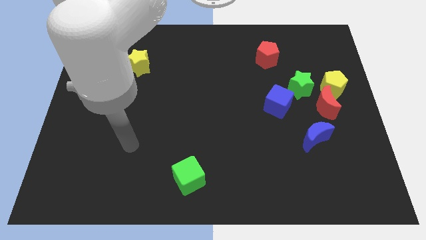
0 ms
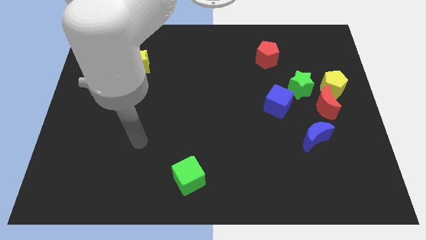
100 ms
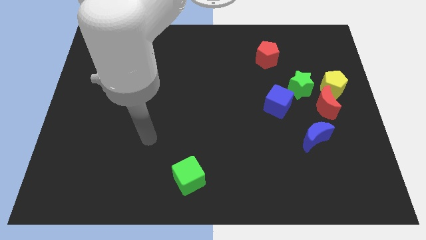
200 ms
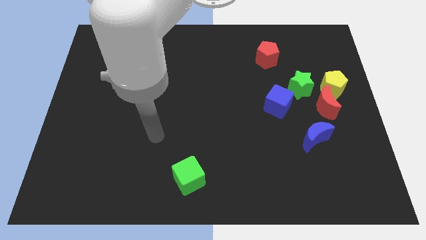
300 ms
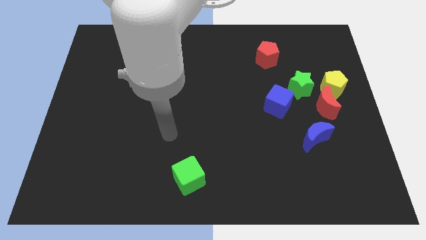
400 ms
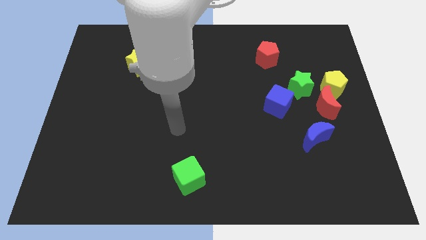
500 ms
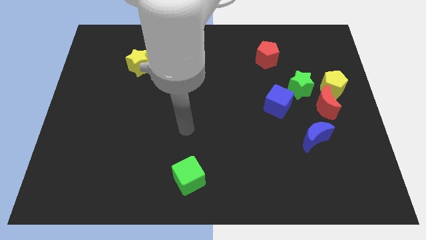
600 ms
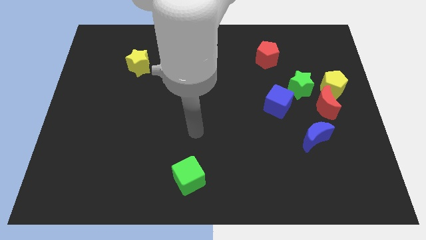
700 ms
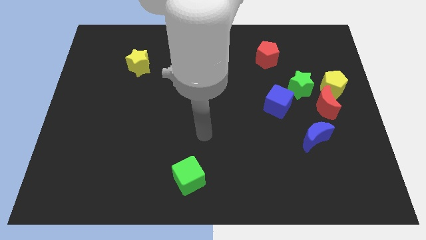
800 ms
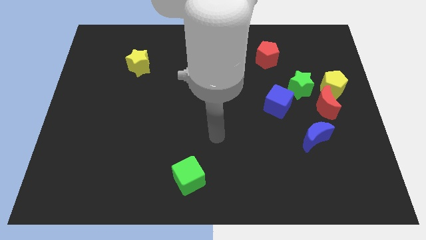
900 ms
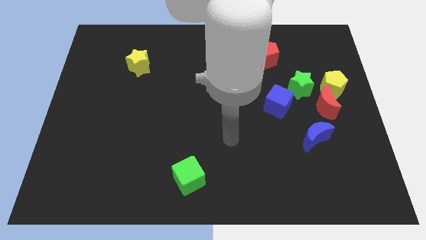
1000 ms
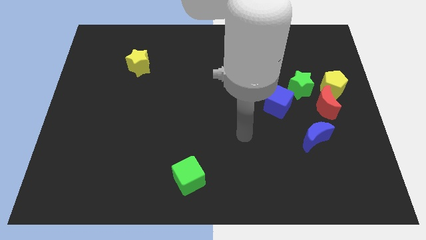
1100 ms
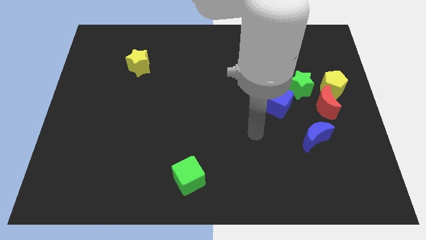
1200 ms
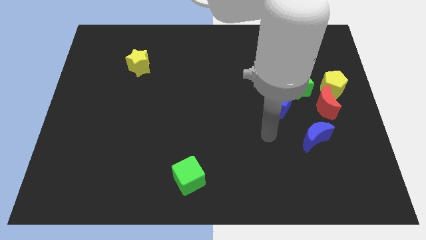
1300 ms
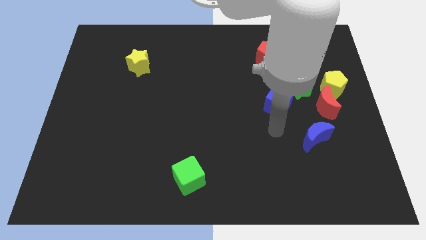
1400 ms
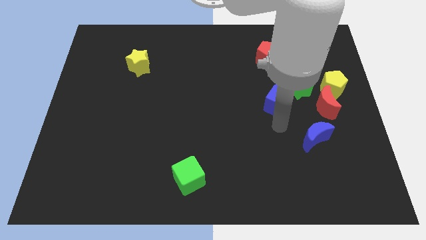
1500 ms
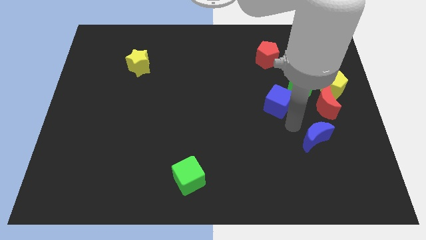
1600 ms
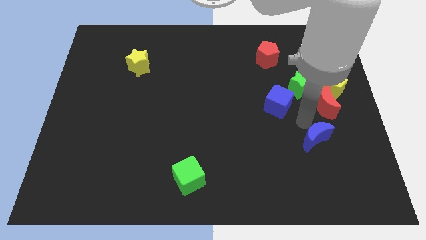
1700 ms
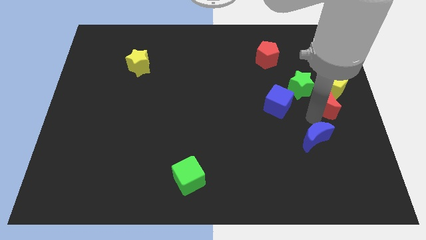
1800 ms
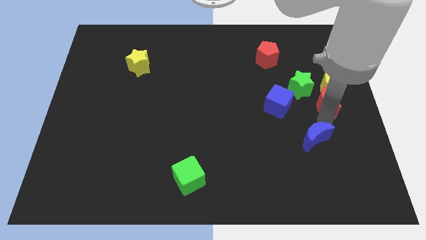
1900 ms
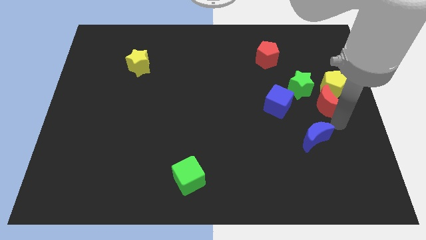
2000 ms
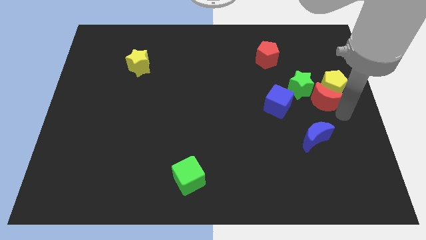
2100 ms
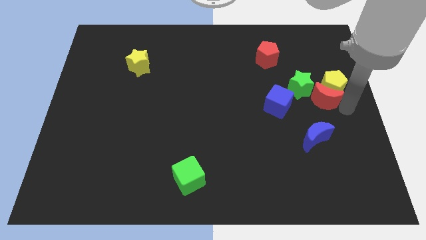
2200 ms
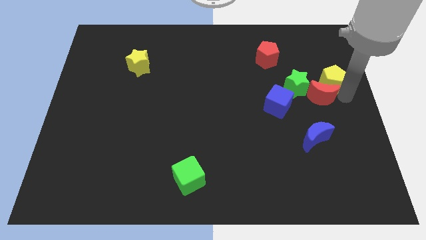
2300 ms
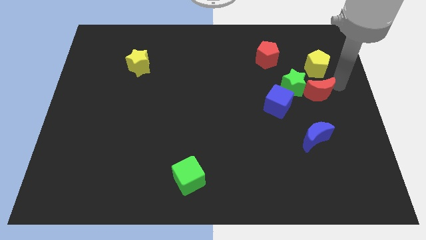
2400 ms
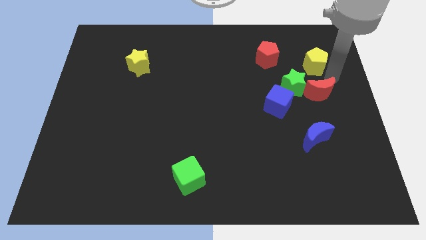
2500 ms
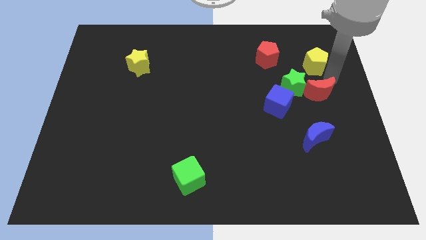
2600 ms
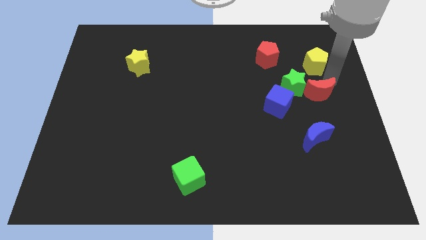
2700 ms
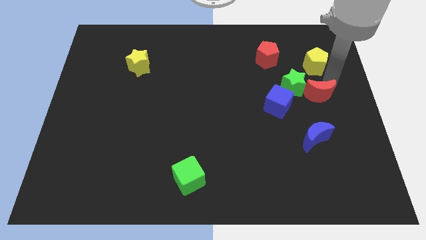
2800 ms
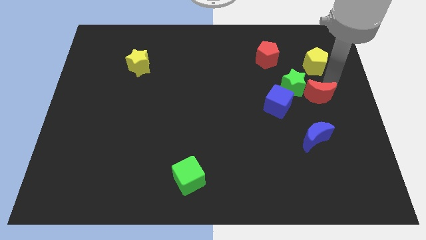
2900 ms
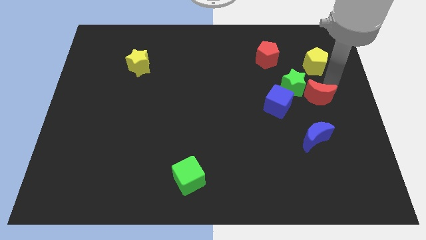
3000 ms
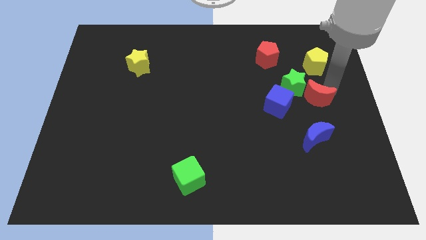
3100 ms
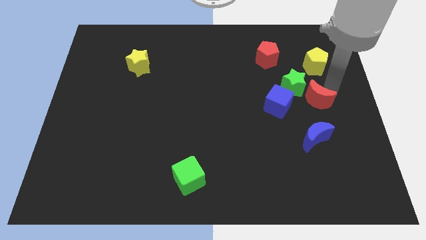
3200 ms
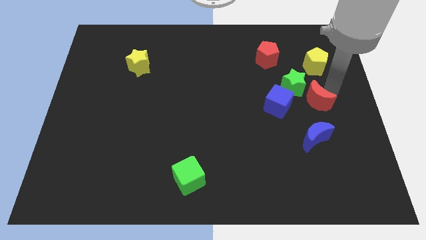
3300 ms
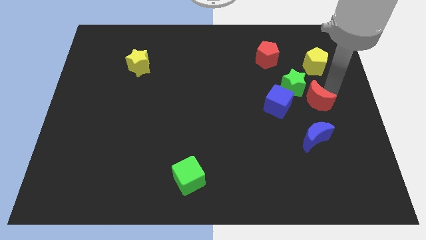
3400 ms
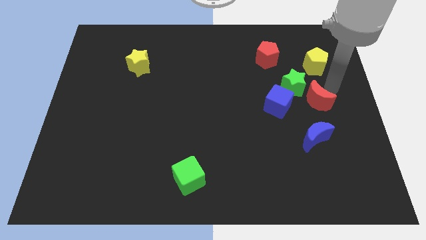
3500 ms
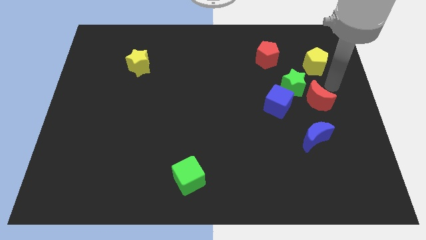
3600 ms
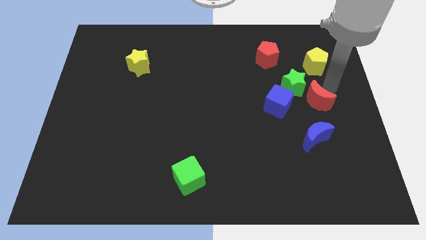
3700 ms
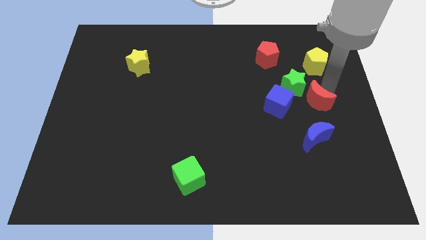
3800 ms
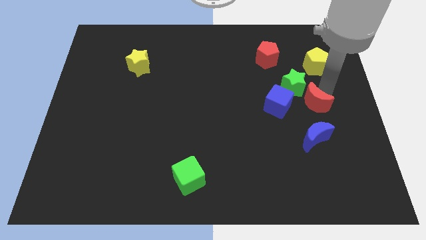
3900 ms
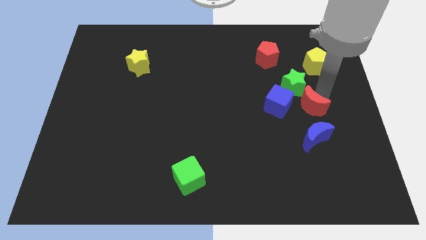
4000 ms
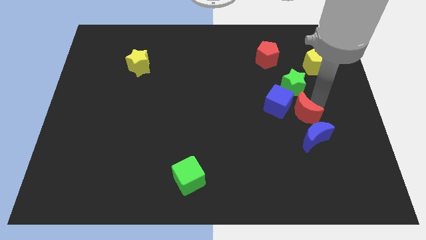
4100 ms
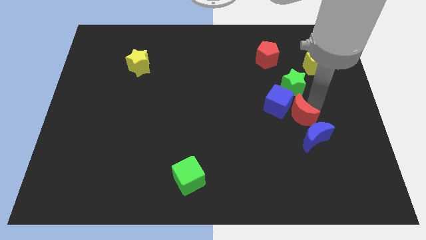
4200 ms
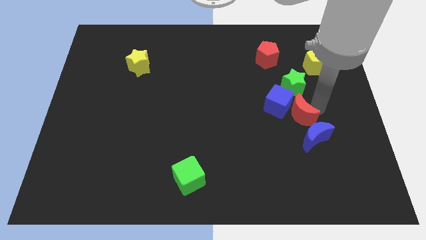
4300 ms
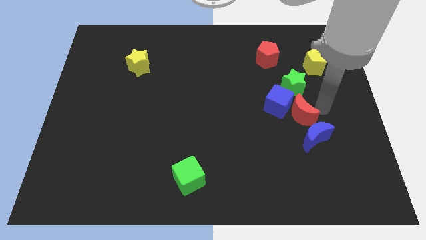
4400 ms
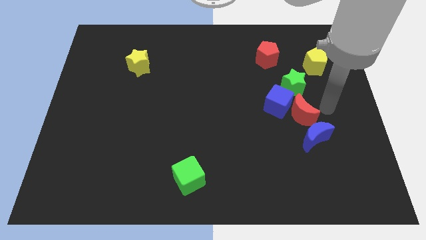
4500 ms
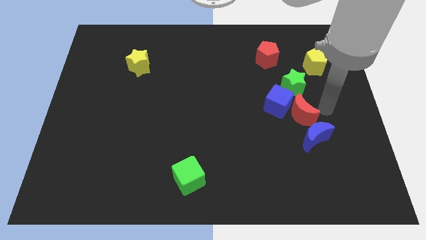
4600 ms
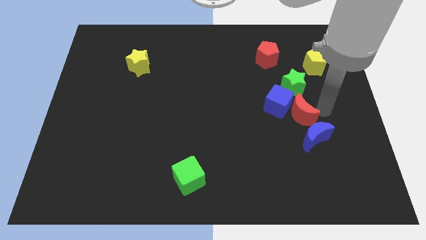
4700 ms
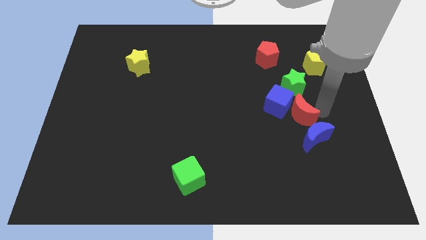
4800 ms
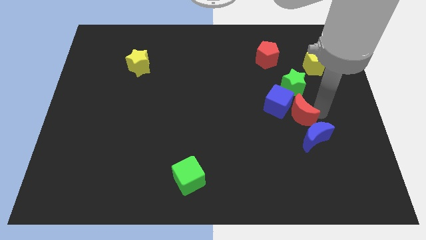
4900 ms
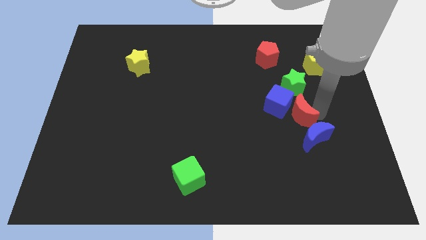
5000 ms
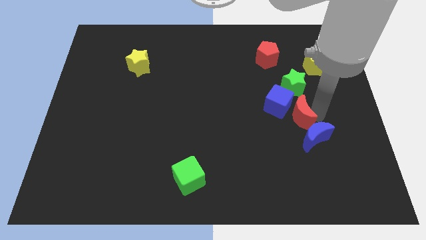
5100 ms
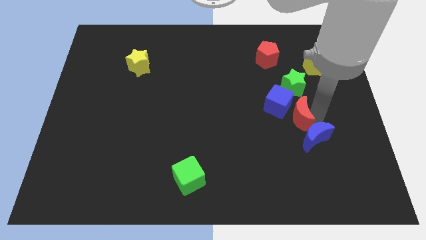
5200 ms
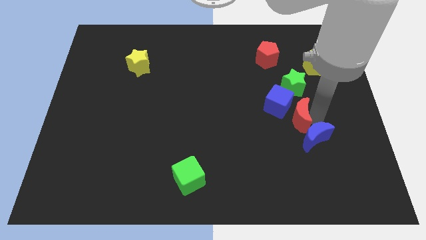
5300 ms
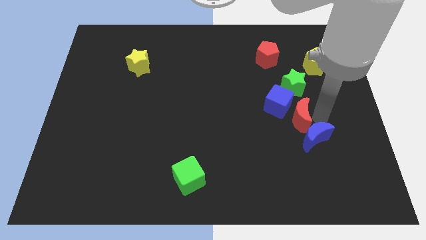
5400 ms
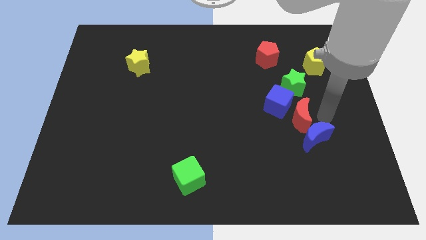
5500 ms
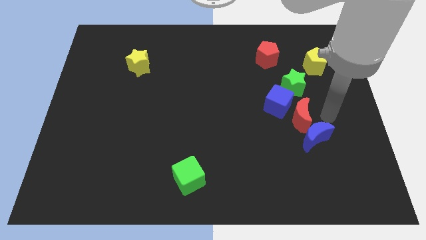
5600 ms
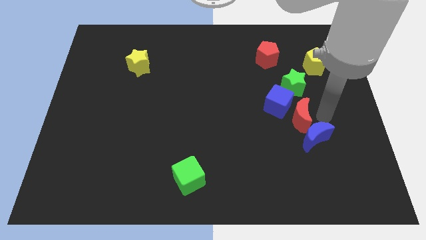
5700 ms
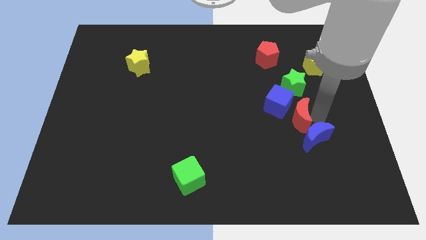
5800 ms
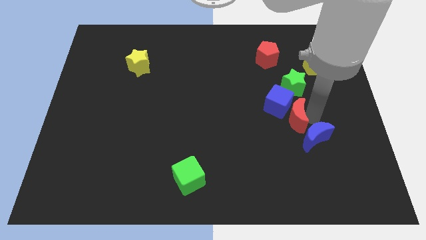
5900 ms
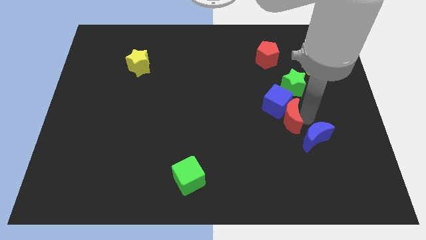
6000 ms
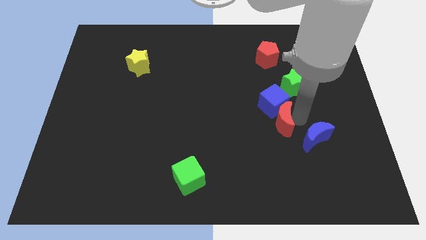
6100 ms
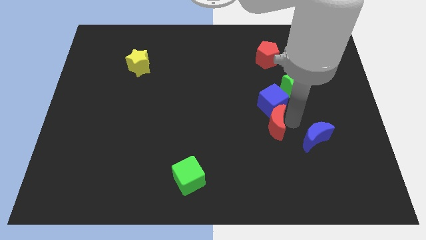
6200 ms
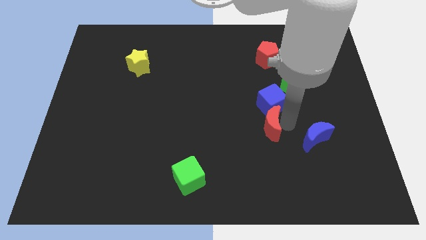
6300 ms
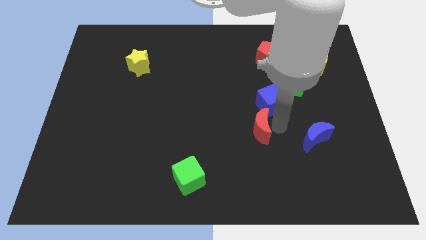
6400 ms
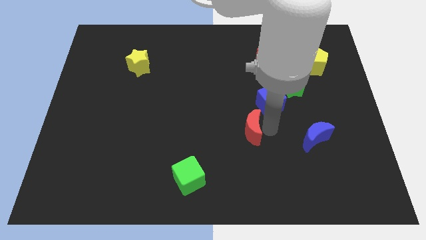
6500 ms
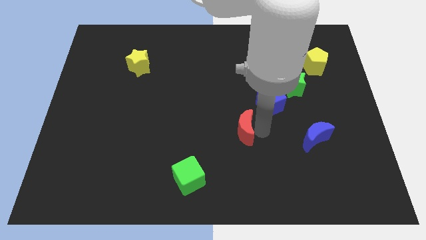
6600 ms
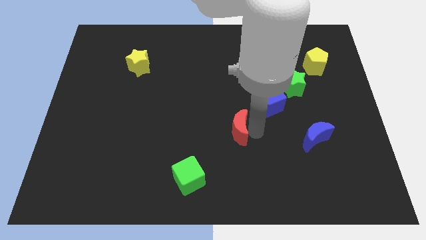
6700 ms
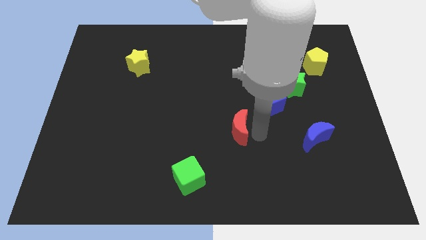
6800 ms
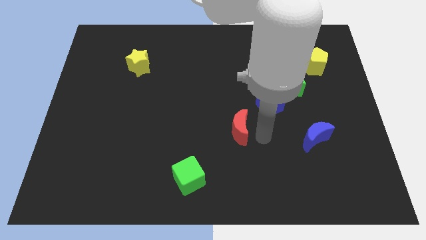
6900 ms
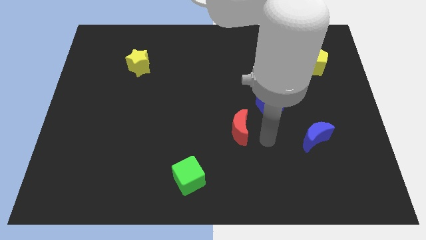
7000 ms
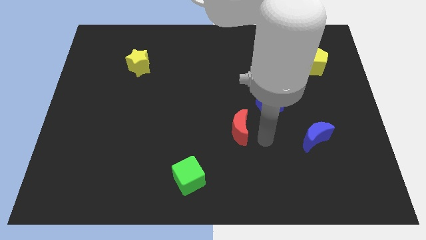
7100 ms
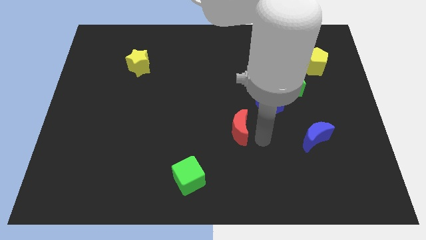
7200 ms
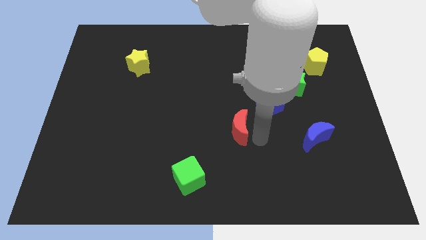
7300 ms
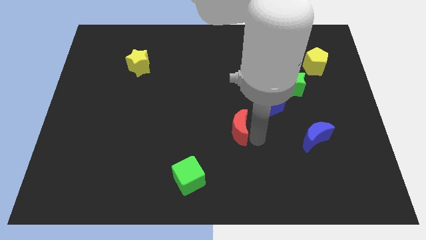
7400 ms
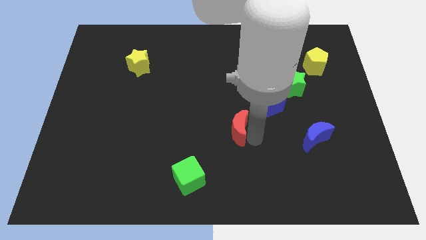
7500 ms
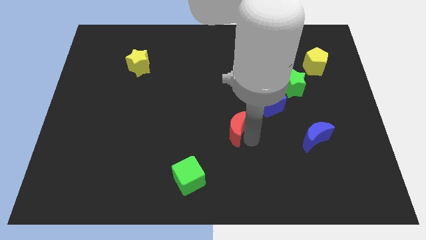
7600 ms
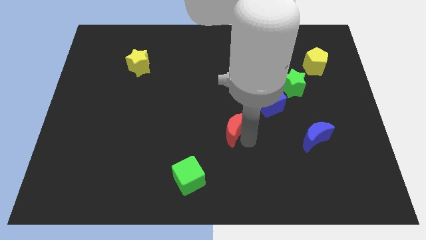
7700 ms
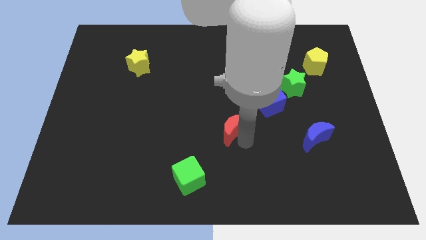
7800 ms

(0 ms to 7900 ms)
slide the red moon to the left

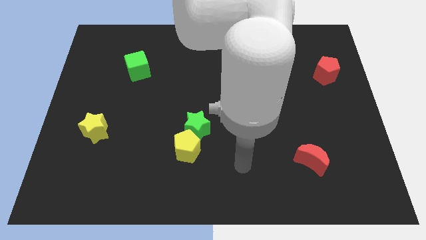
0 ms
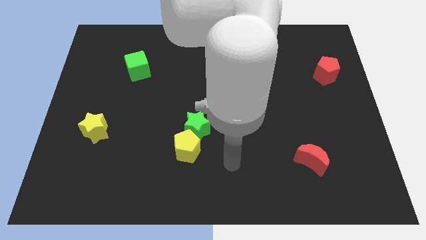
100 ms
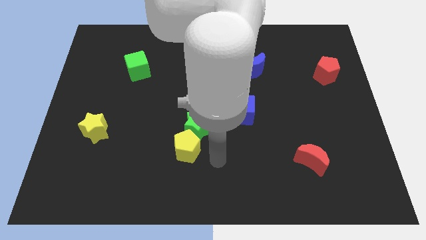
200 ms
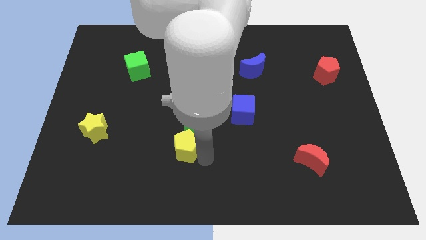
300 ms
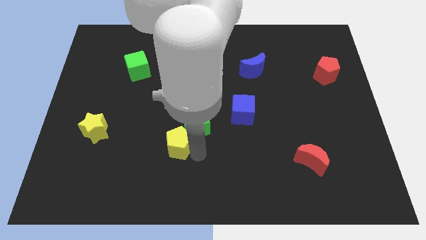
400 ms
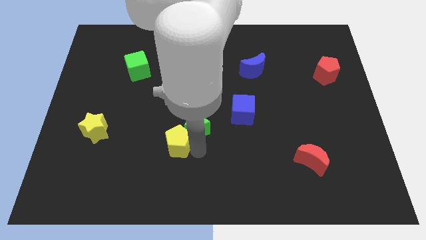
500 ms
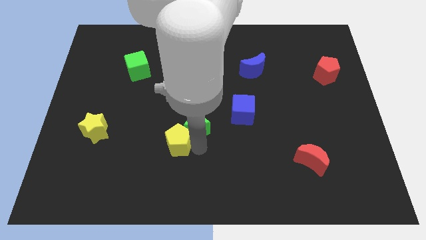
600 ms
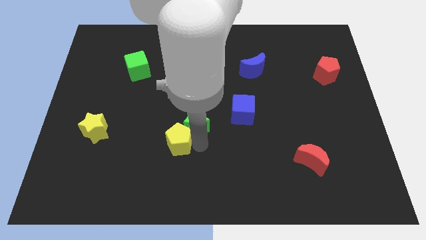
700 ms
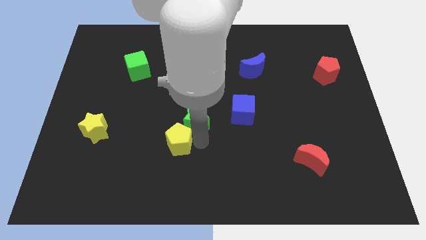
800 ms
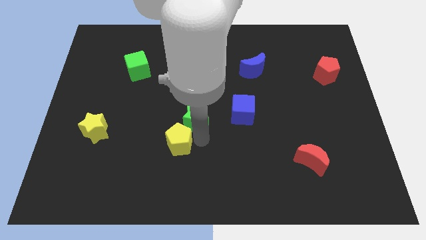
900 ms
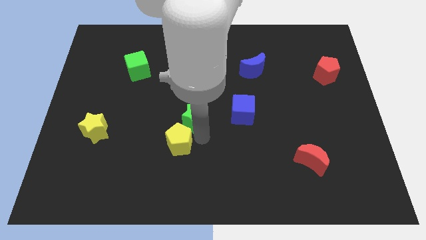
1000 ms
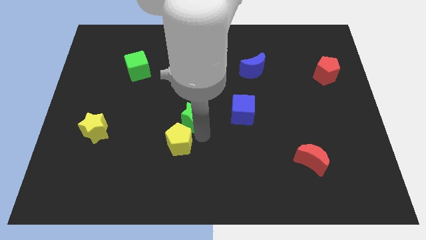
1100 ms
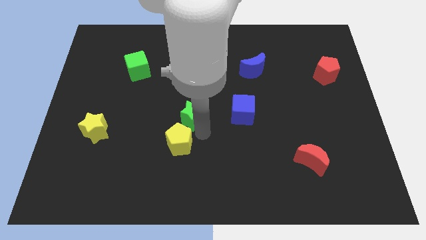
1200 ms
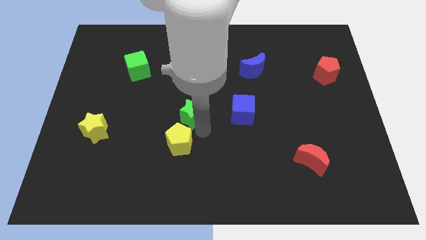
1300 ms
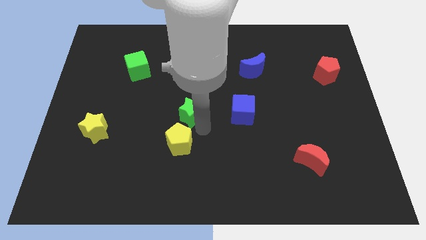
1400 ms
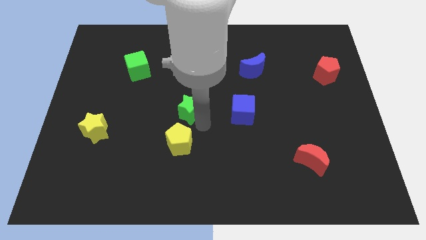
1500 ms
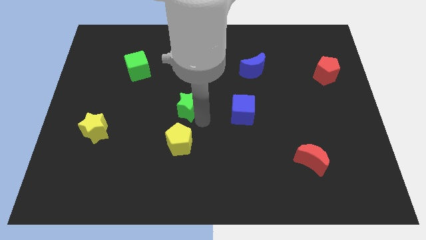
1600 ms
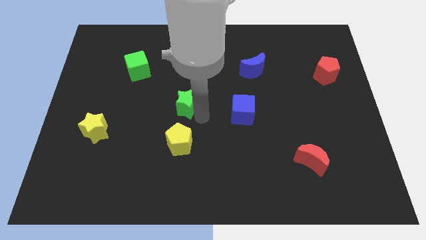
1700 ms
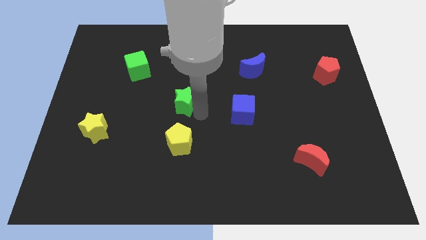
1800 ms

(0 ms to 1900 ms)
slightly slide the green star up
